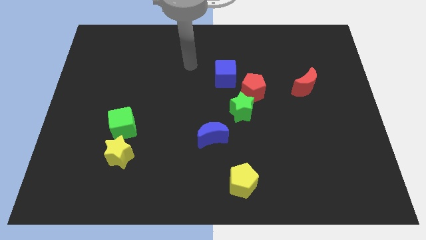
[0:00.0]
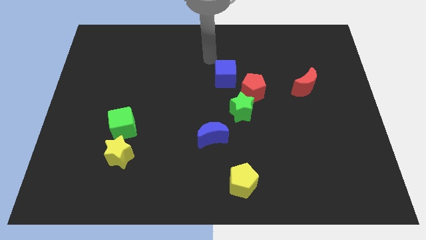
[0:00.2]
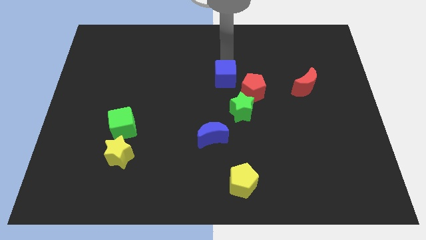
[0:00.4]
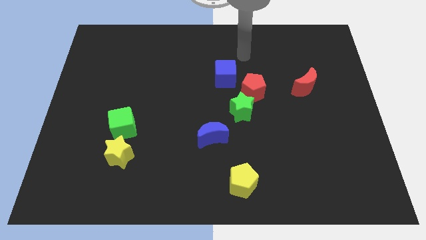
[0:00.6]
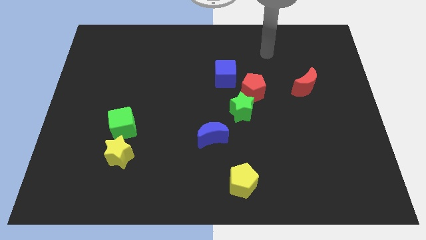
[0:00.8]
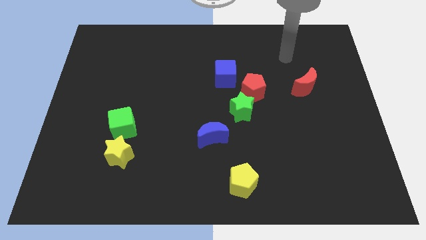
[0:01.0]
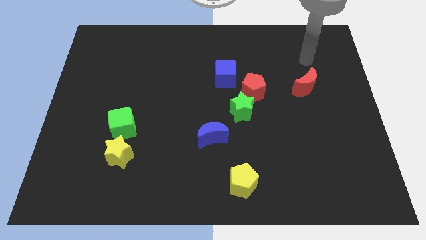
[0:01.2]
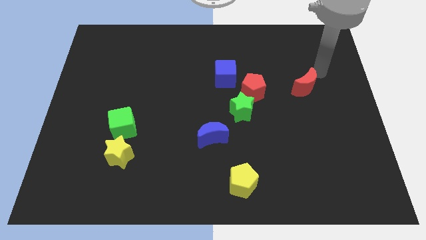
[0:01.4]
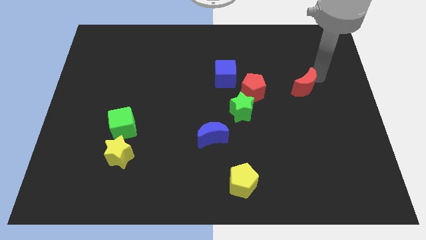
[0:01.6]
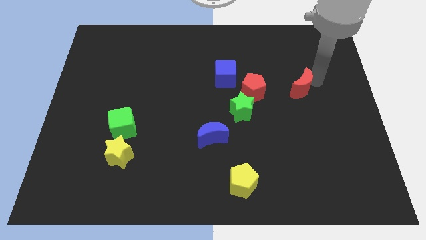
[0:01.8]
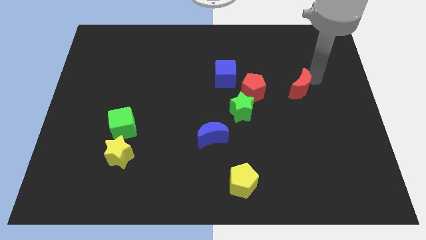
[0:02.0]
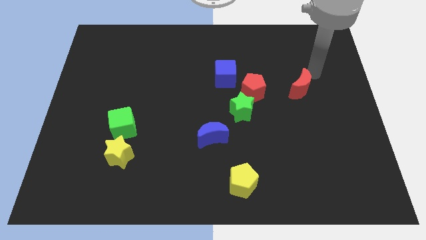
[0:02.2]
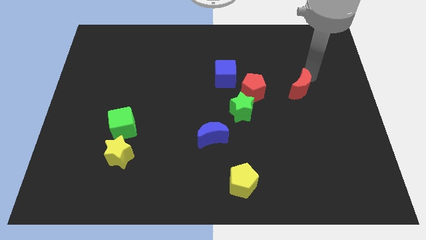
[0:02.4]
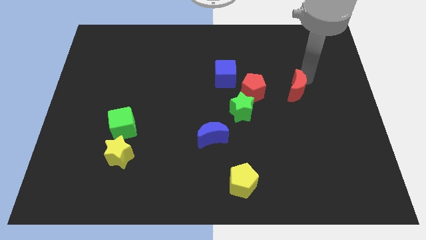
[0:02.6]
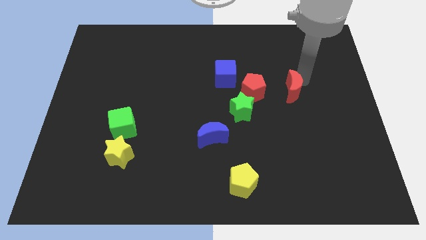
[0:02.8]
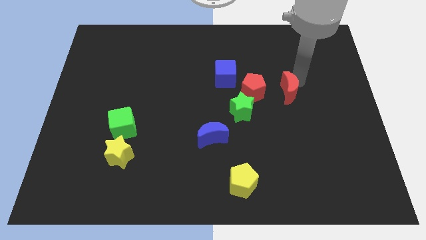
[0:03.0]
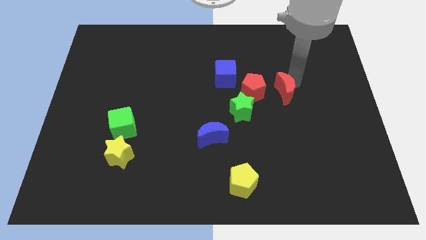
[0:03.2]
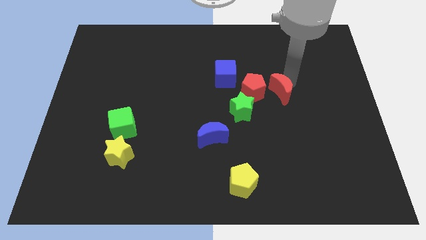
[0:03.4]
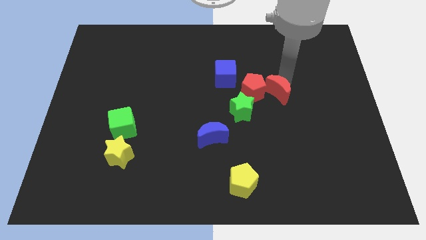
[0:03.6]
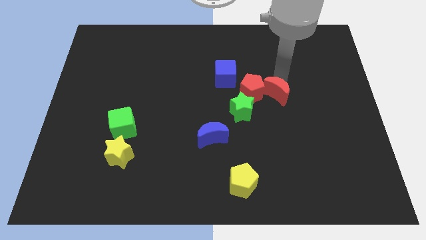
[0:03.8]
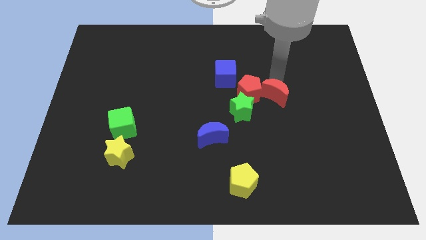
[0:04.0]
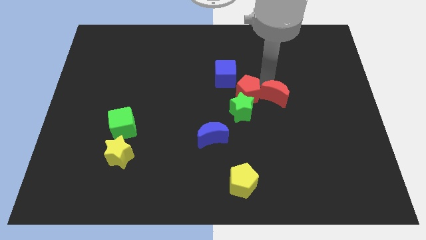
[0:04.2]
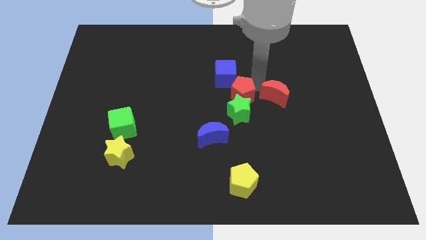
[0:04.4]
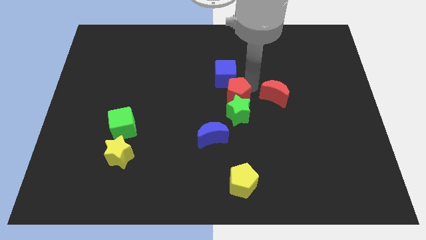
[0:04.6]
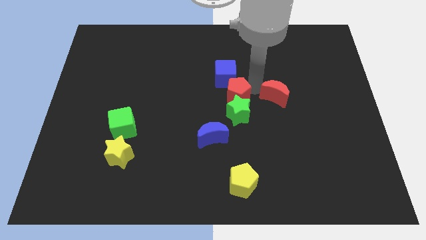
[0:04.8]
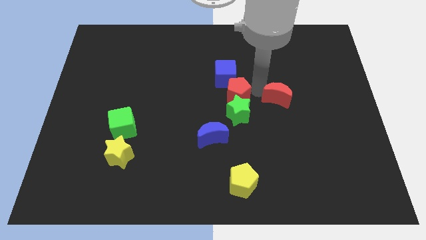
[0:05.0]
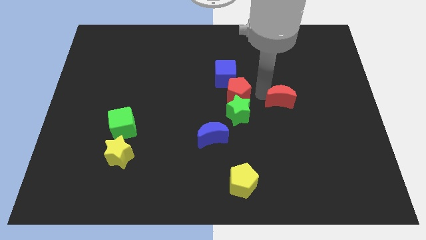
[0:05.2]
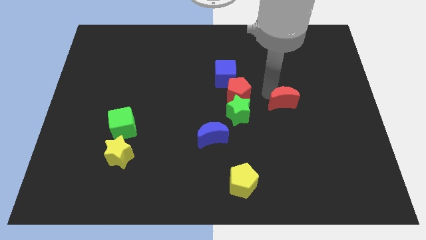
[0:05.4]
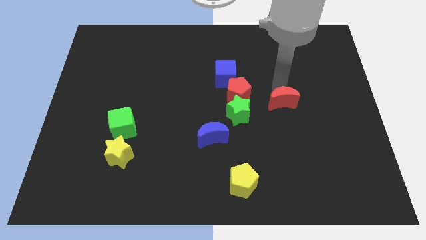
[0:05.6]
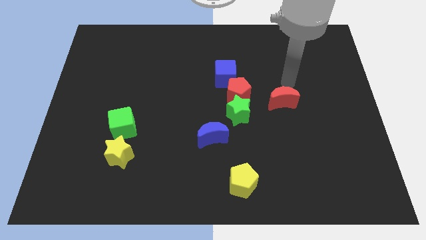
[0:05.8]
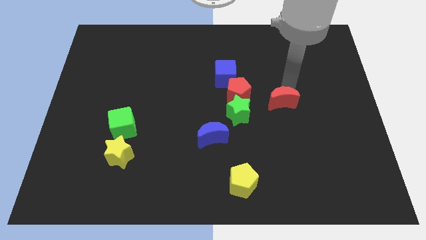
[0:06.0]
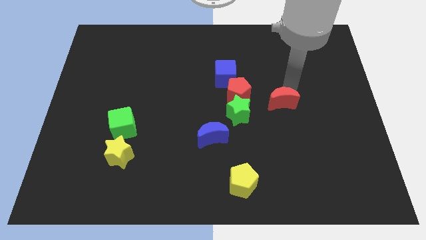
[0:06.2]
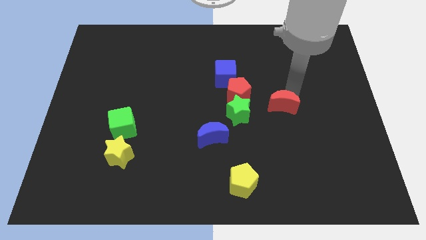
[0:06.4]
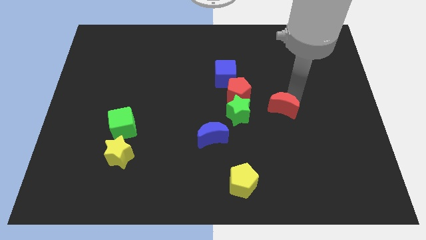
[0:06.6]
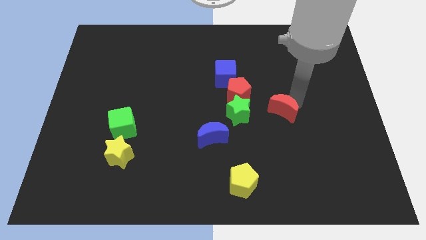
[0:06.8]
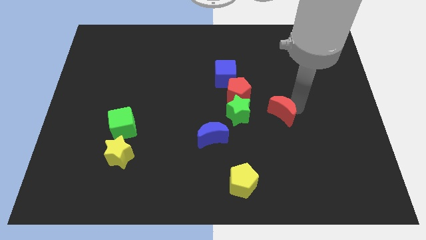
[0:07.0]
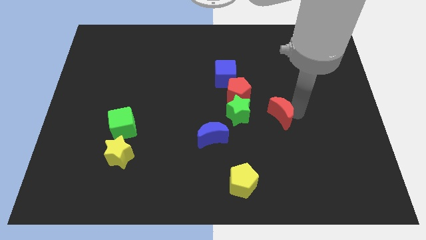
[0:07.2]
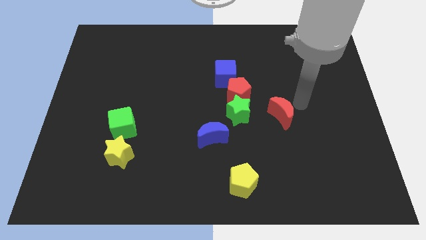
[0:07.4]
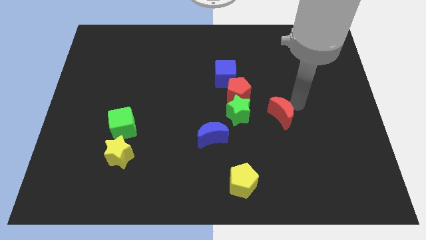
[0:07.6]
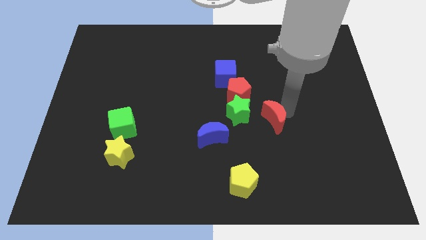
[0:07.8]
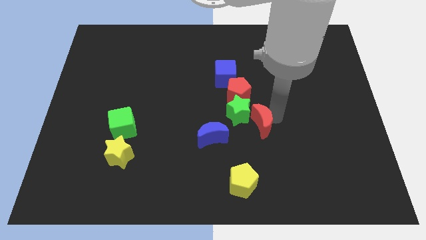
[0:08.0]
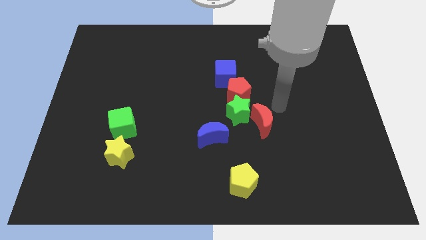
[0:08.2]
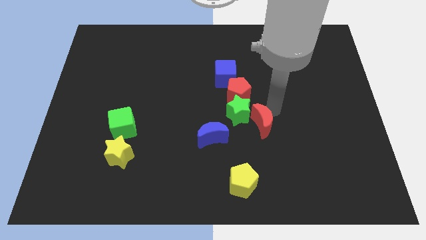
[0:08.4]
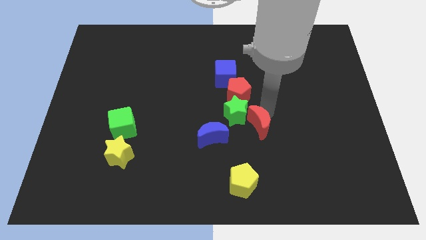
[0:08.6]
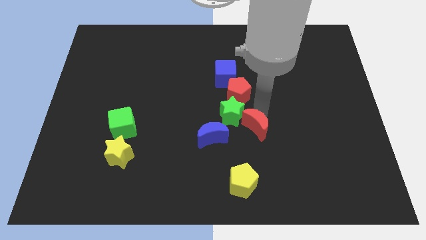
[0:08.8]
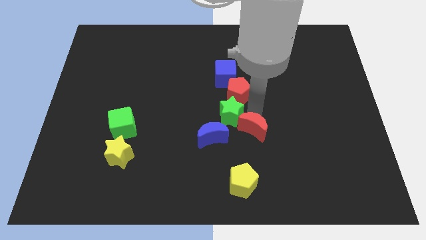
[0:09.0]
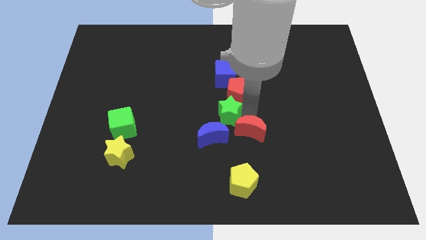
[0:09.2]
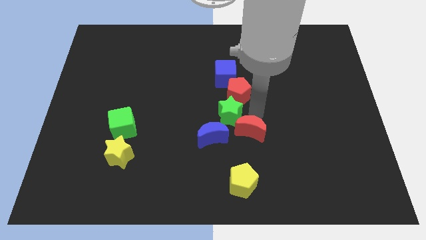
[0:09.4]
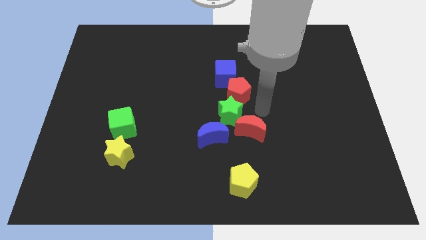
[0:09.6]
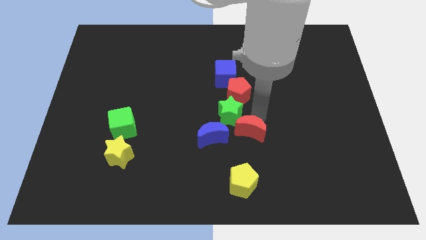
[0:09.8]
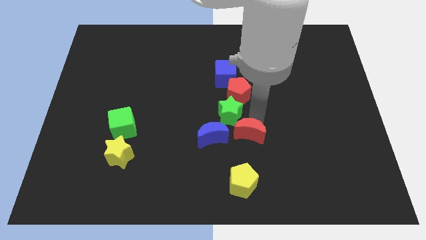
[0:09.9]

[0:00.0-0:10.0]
move the red moon down and to the left diagonally

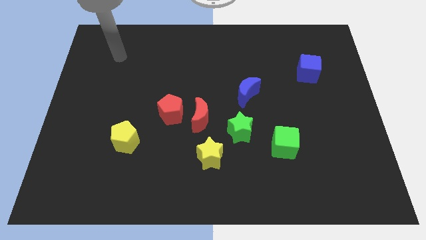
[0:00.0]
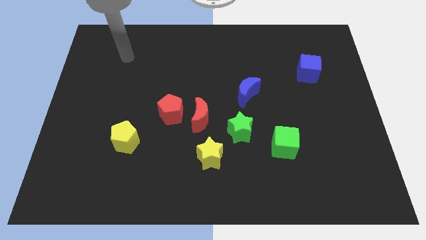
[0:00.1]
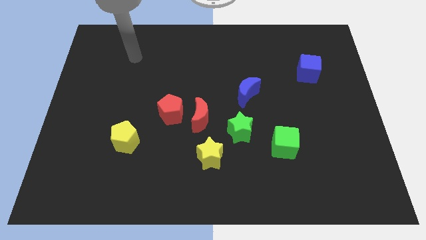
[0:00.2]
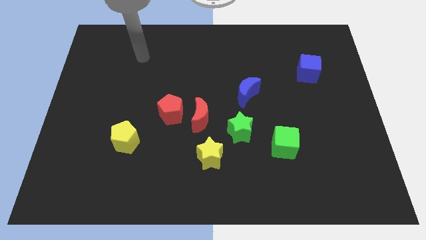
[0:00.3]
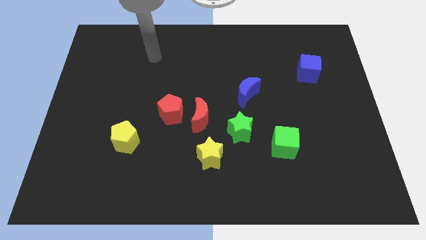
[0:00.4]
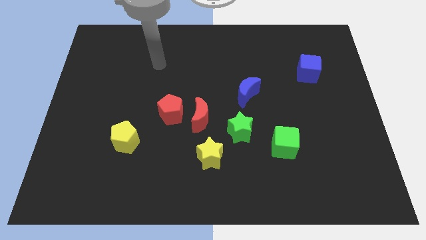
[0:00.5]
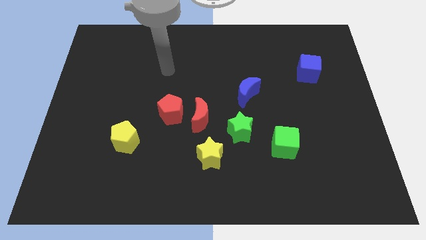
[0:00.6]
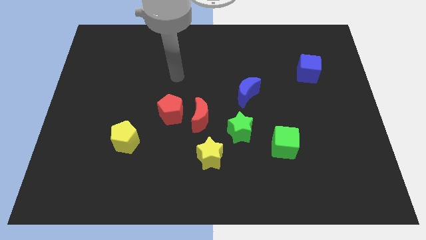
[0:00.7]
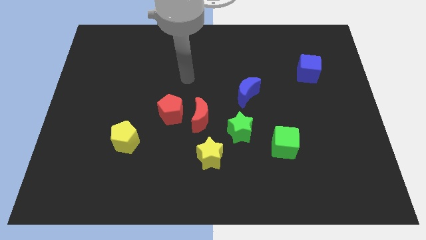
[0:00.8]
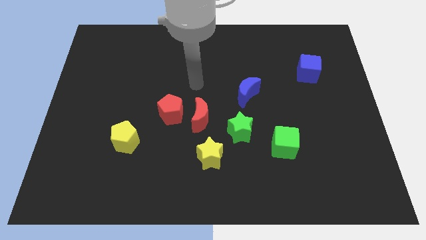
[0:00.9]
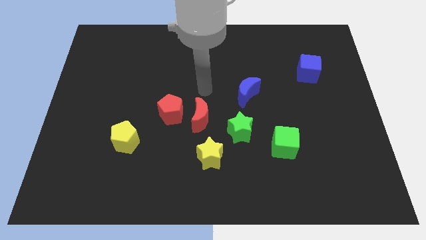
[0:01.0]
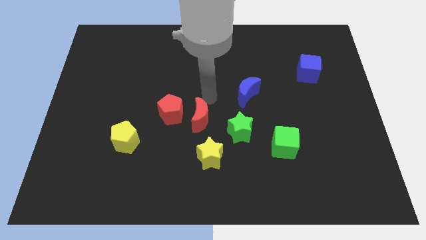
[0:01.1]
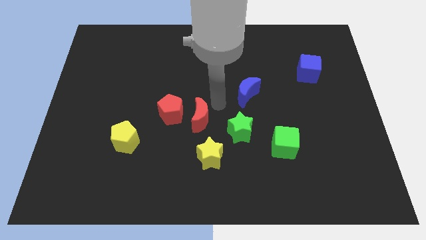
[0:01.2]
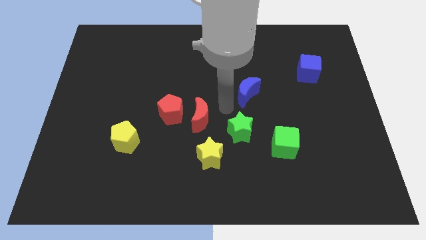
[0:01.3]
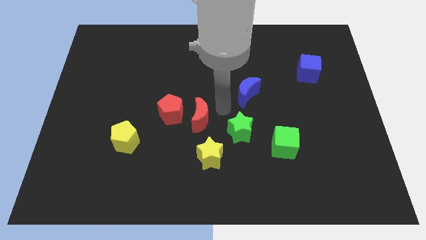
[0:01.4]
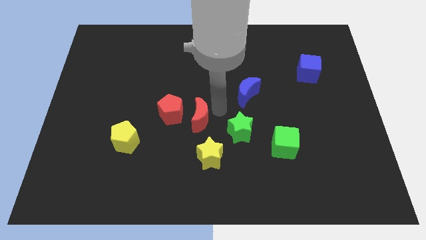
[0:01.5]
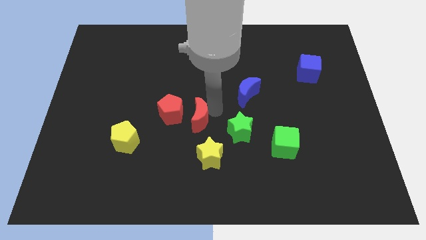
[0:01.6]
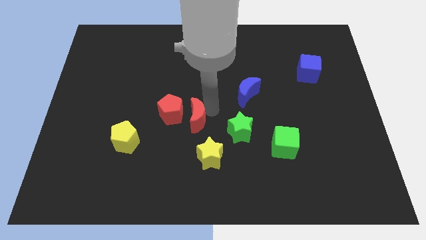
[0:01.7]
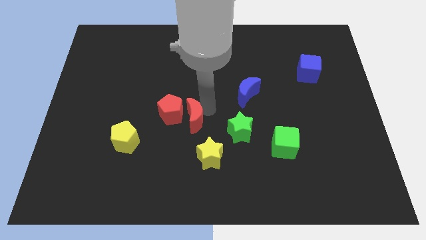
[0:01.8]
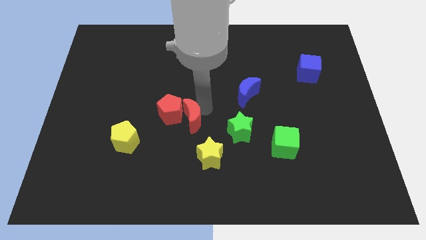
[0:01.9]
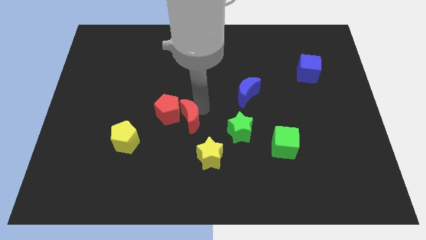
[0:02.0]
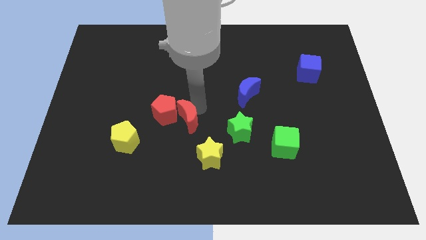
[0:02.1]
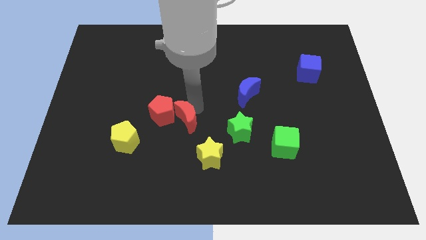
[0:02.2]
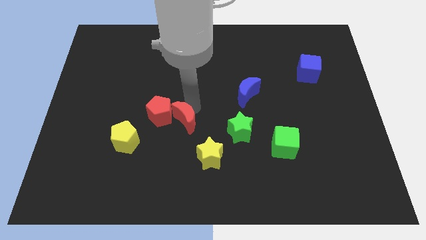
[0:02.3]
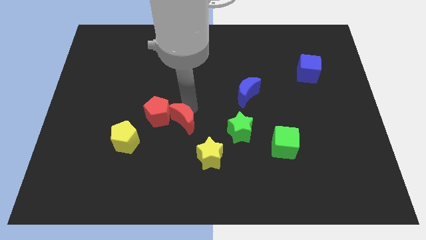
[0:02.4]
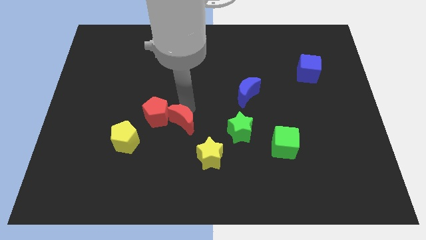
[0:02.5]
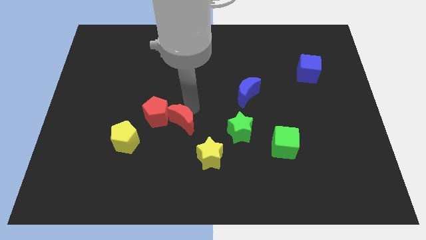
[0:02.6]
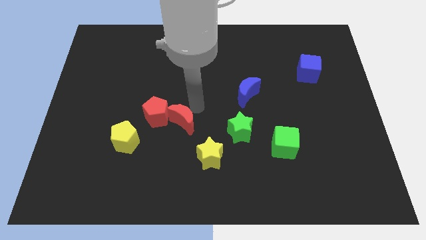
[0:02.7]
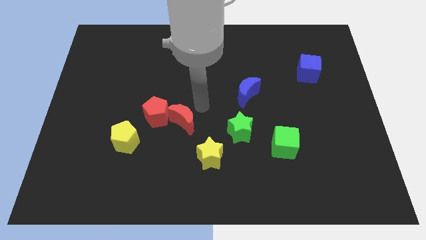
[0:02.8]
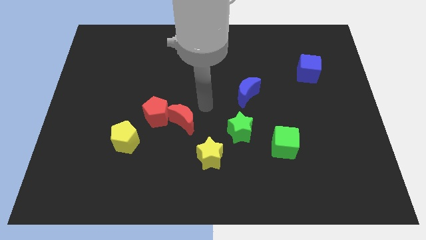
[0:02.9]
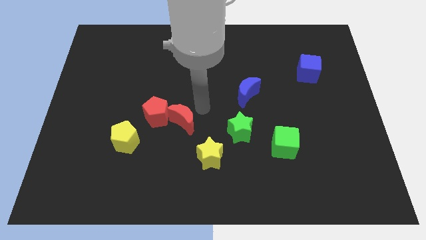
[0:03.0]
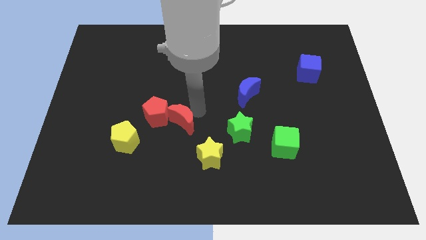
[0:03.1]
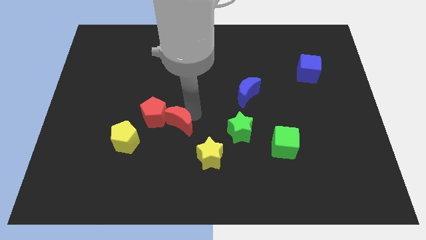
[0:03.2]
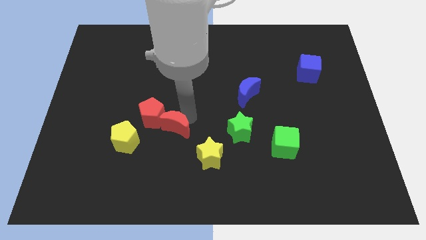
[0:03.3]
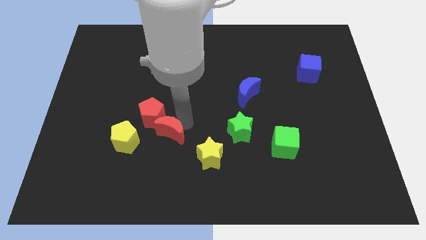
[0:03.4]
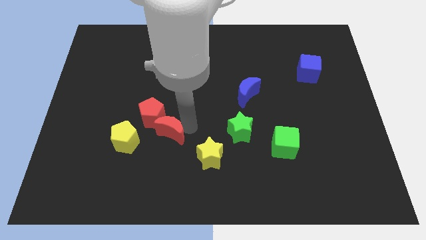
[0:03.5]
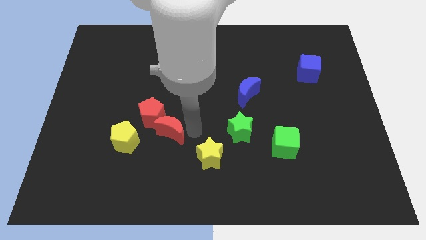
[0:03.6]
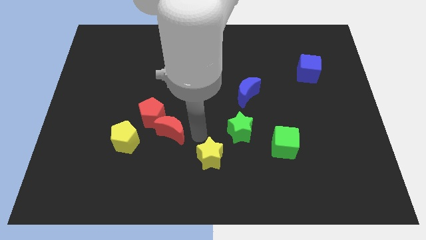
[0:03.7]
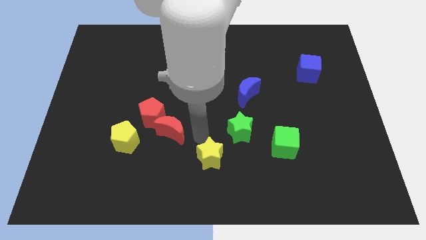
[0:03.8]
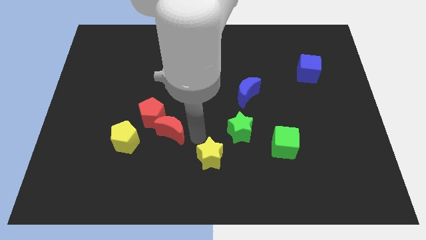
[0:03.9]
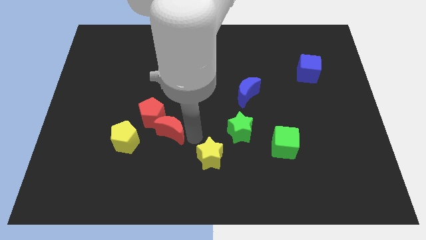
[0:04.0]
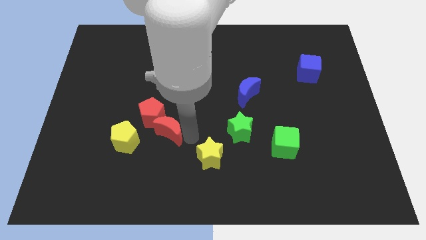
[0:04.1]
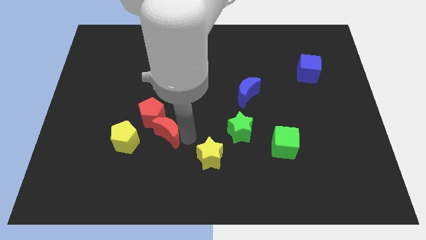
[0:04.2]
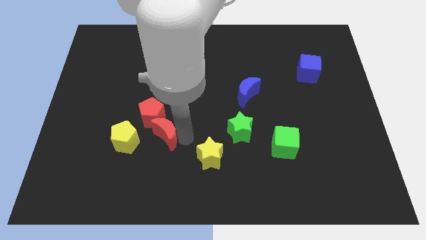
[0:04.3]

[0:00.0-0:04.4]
slide the red moon left somewhat
